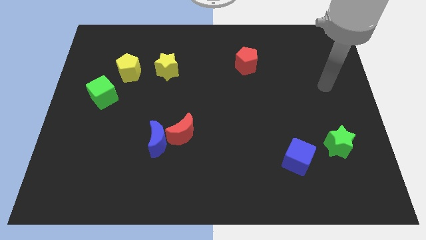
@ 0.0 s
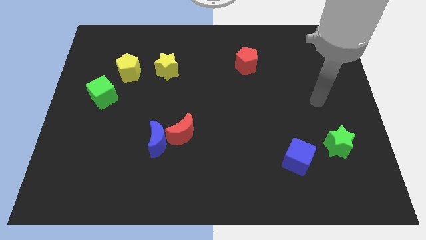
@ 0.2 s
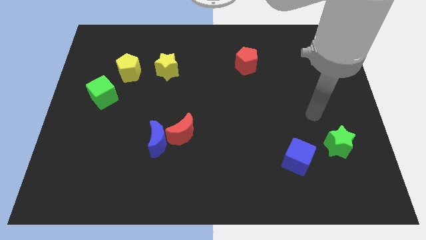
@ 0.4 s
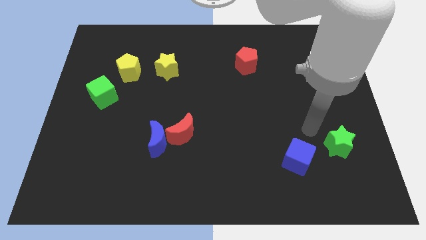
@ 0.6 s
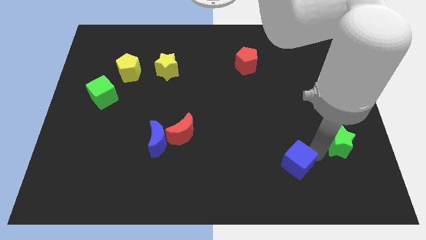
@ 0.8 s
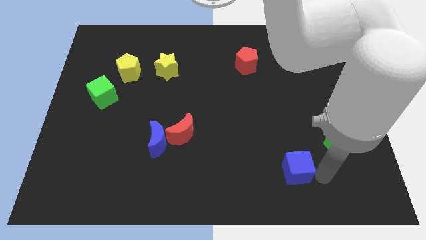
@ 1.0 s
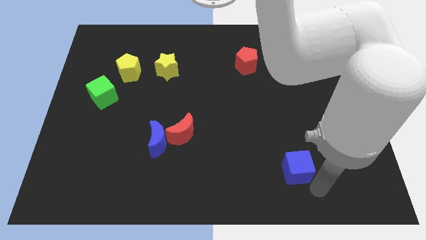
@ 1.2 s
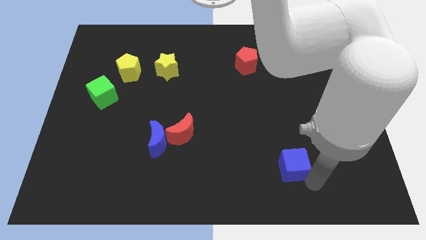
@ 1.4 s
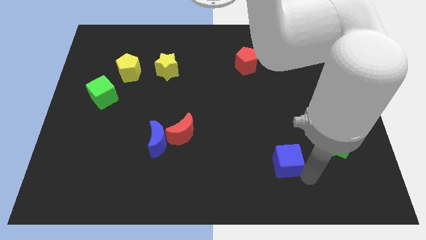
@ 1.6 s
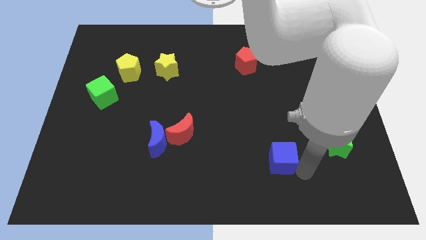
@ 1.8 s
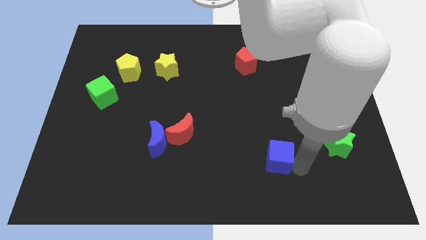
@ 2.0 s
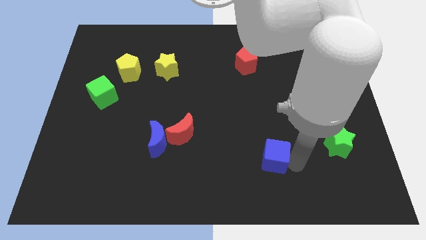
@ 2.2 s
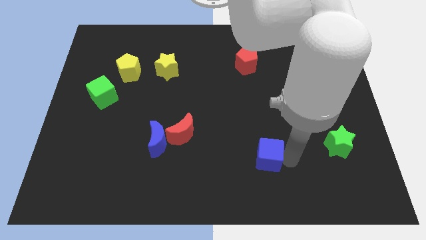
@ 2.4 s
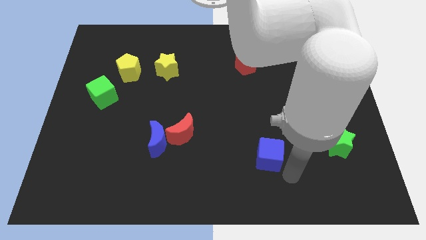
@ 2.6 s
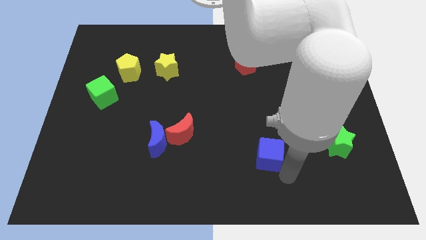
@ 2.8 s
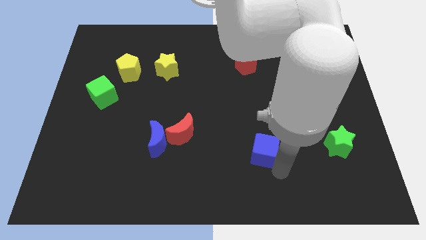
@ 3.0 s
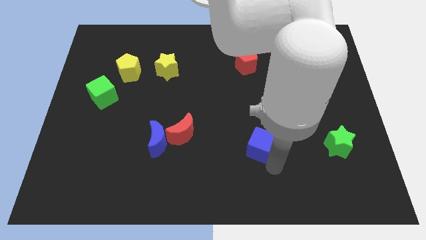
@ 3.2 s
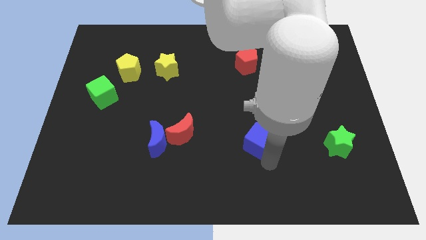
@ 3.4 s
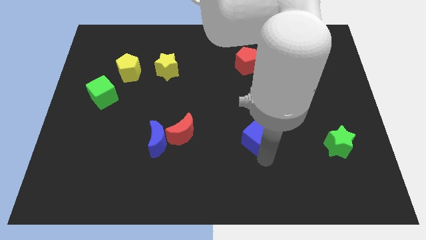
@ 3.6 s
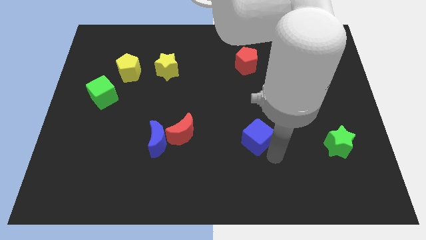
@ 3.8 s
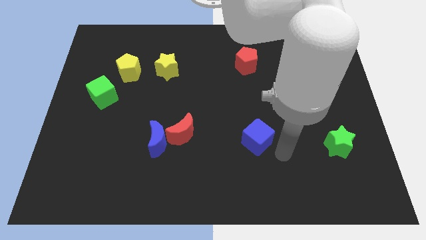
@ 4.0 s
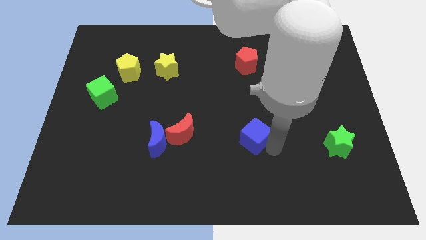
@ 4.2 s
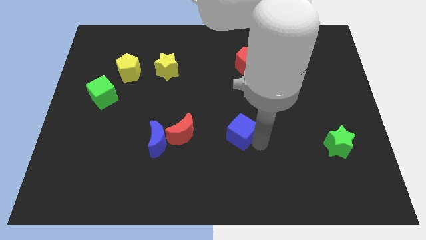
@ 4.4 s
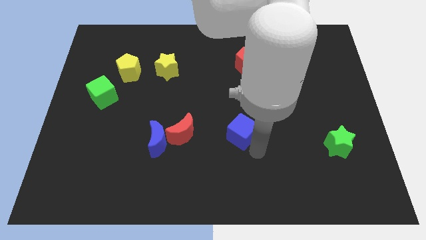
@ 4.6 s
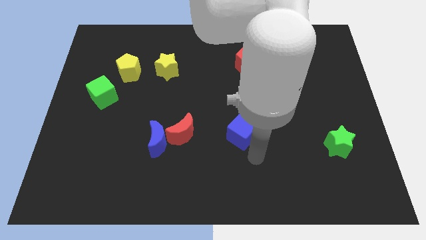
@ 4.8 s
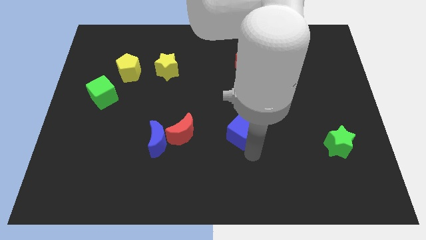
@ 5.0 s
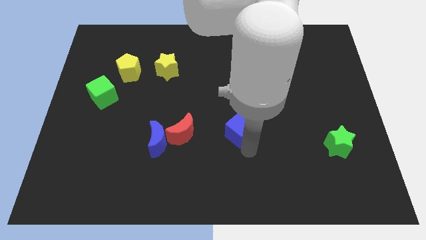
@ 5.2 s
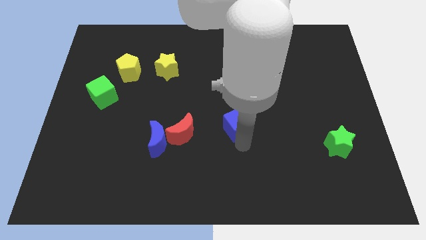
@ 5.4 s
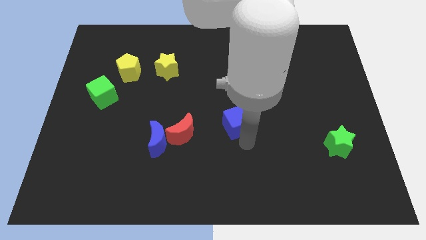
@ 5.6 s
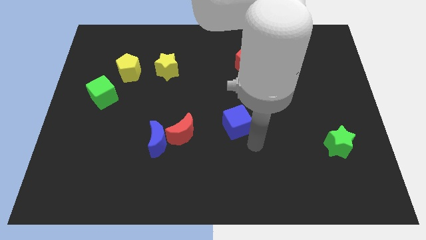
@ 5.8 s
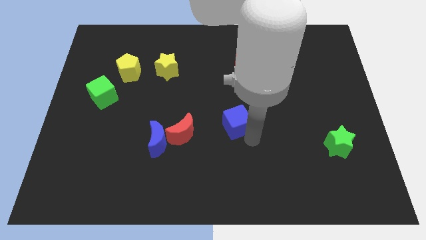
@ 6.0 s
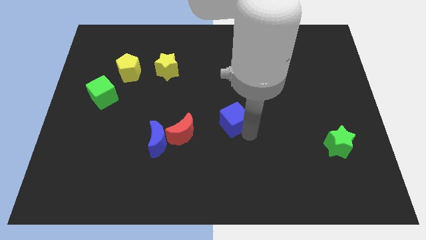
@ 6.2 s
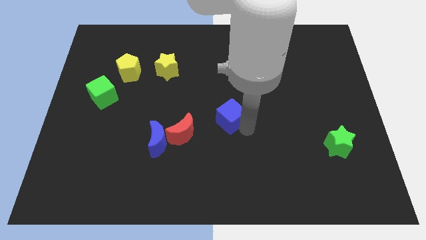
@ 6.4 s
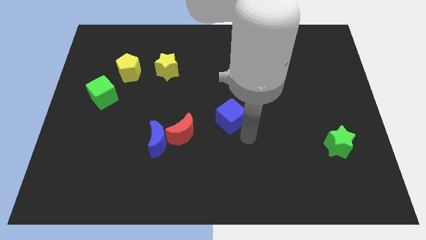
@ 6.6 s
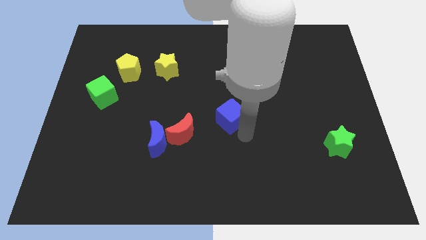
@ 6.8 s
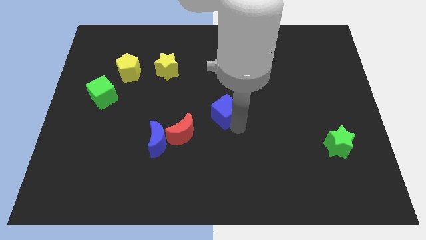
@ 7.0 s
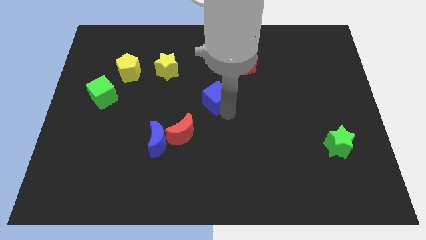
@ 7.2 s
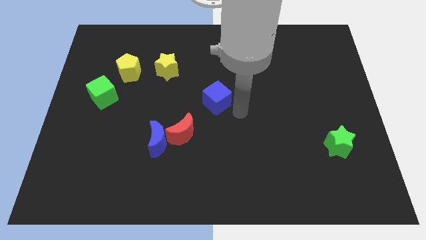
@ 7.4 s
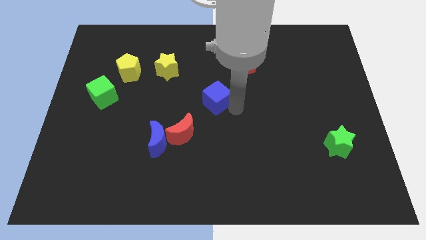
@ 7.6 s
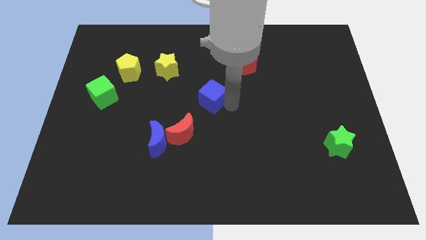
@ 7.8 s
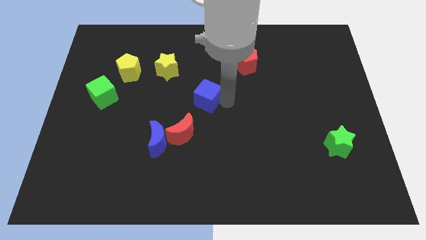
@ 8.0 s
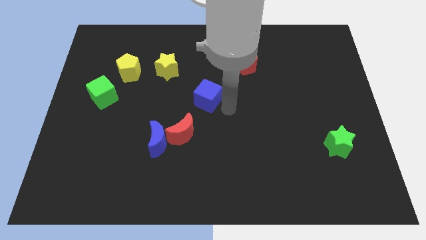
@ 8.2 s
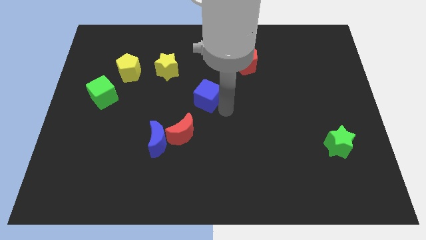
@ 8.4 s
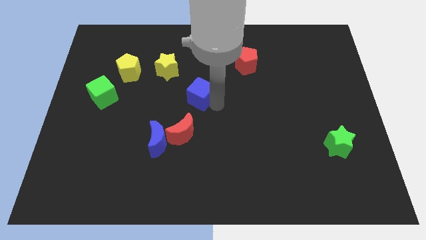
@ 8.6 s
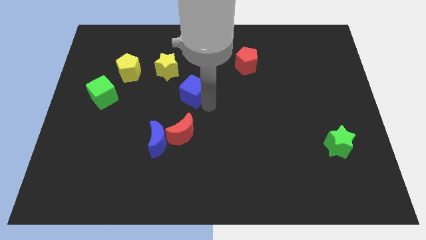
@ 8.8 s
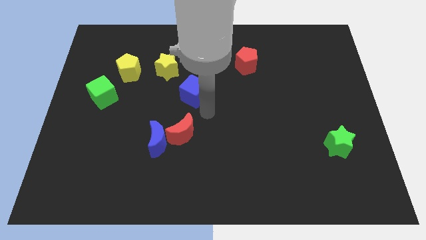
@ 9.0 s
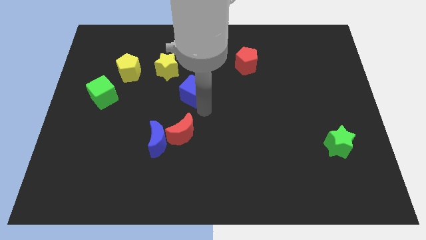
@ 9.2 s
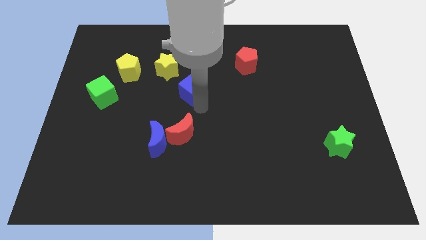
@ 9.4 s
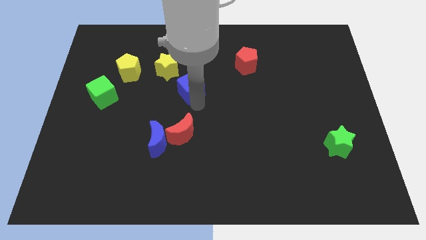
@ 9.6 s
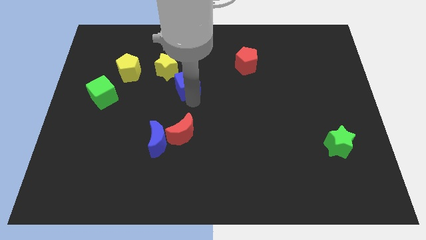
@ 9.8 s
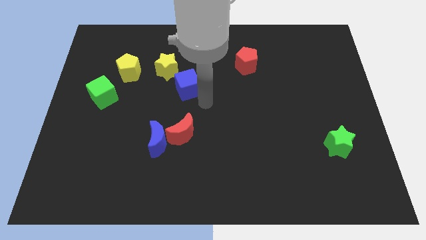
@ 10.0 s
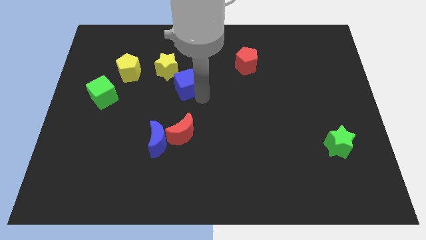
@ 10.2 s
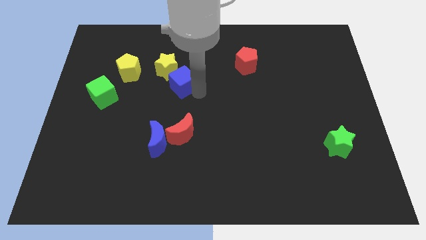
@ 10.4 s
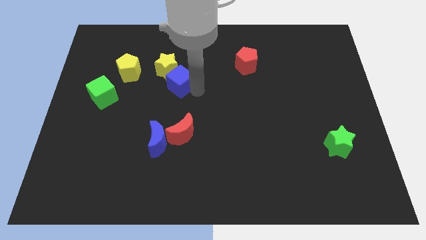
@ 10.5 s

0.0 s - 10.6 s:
move the blue cube to the yellow star

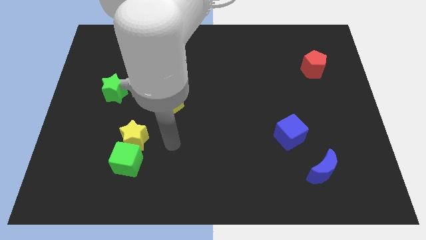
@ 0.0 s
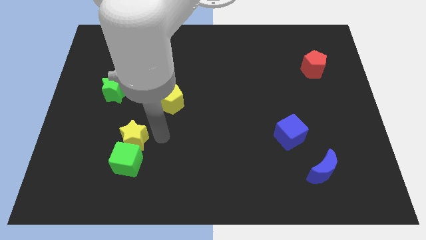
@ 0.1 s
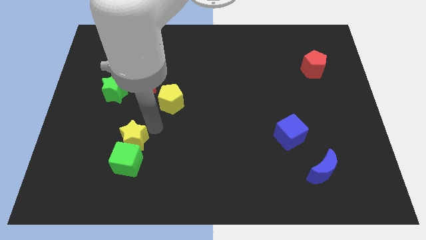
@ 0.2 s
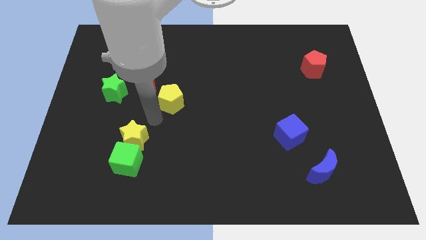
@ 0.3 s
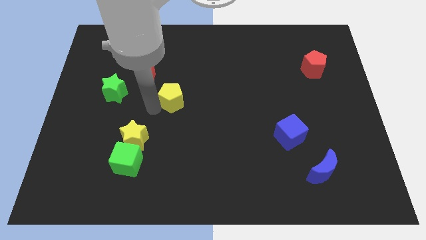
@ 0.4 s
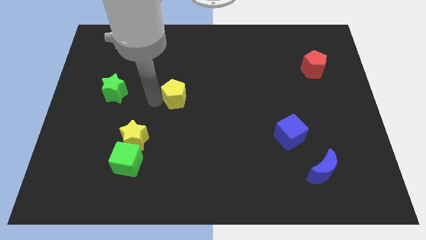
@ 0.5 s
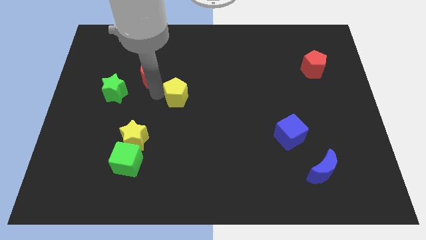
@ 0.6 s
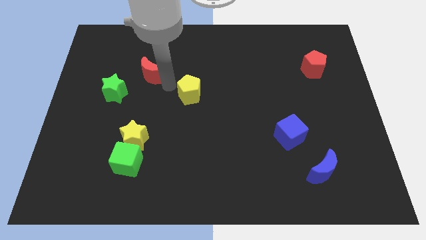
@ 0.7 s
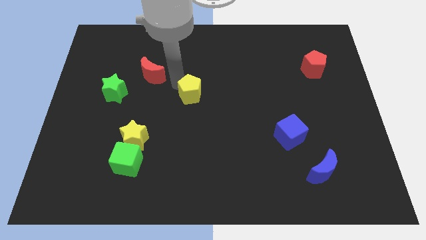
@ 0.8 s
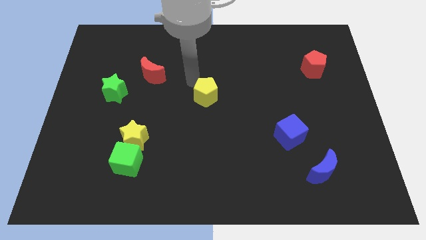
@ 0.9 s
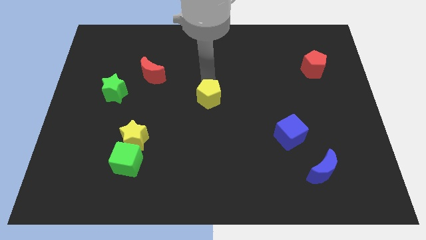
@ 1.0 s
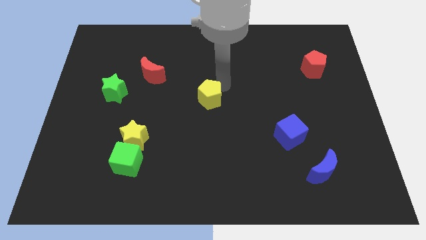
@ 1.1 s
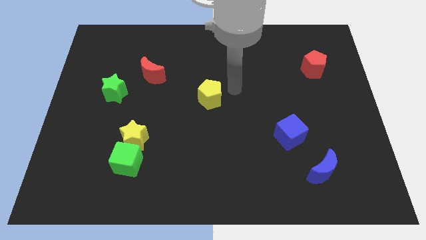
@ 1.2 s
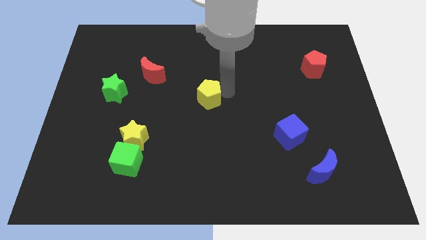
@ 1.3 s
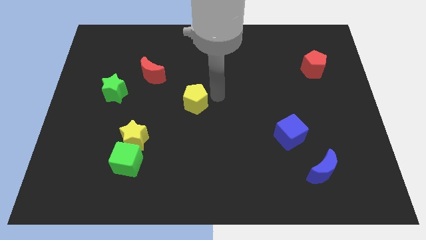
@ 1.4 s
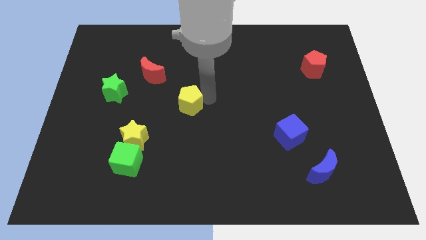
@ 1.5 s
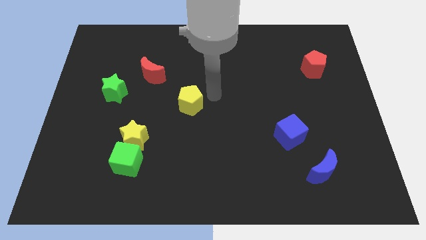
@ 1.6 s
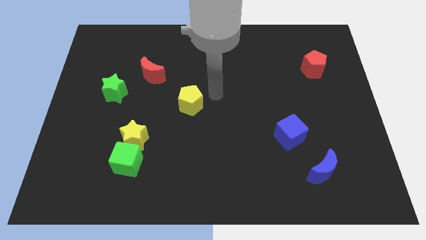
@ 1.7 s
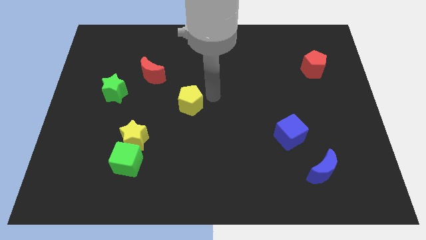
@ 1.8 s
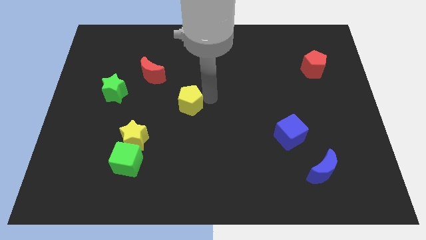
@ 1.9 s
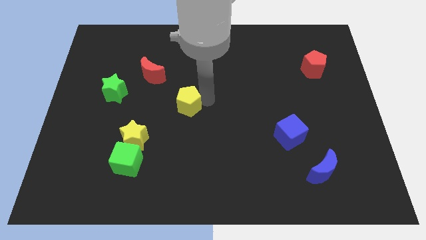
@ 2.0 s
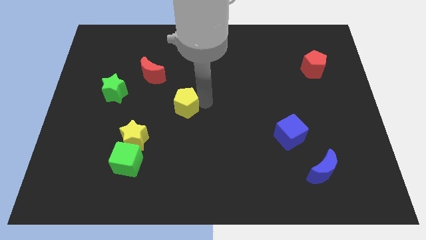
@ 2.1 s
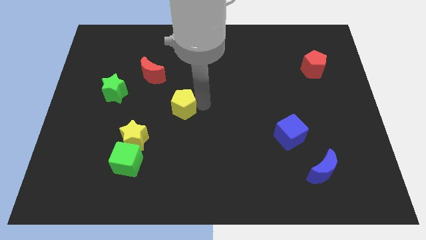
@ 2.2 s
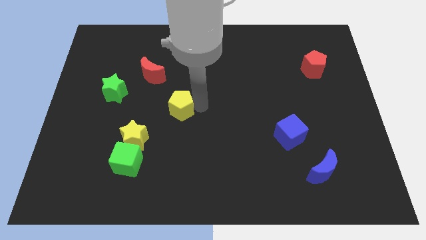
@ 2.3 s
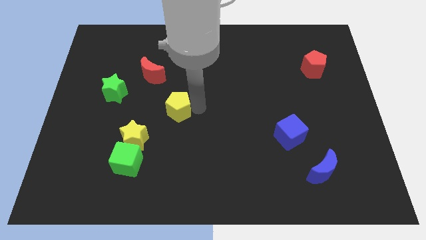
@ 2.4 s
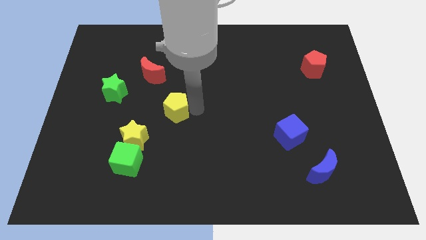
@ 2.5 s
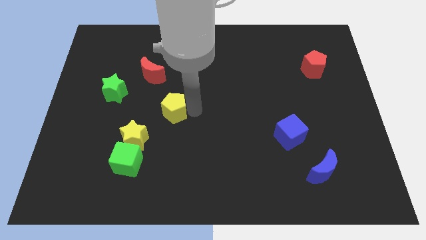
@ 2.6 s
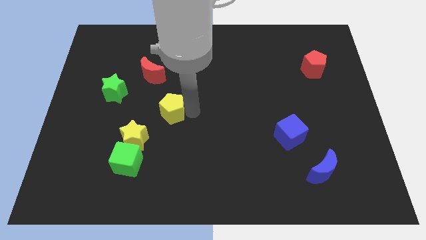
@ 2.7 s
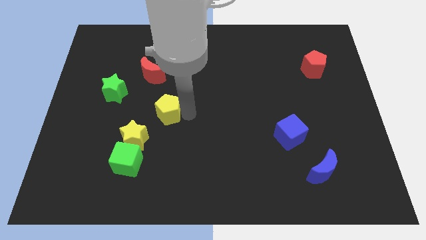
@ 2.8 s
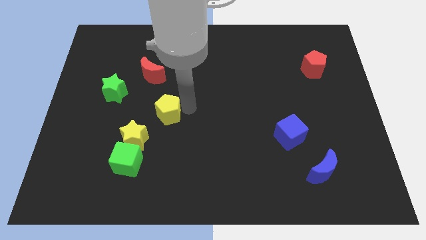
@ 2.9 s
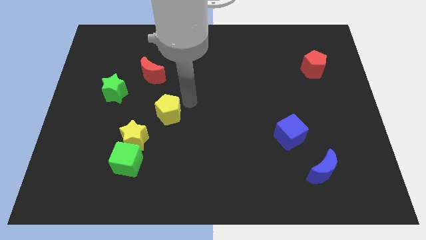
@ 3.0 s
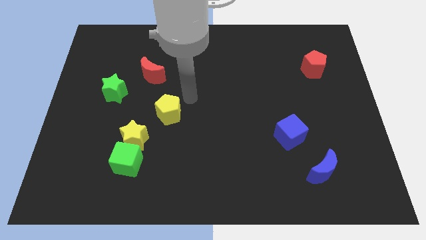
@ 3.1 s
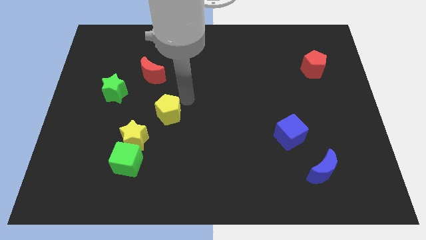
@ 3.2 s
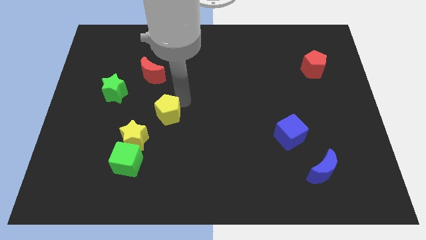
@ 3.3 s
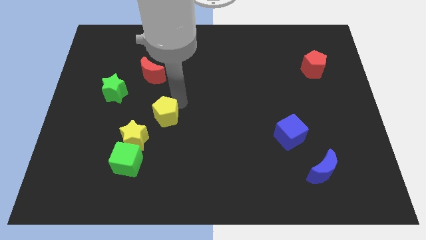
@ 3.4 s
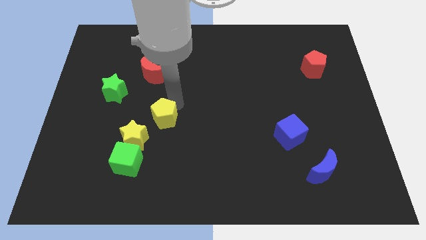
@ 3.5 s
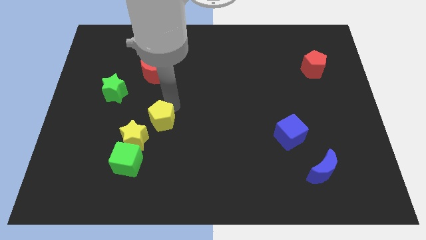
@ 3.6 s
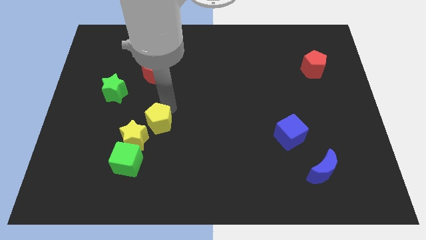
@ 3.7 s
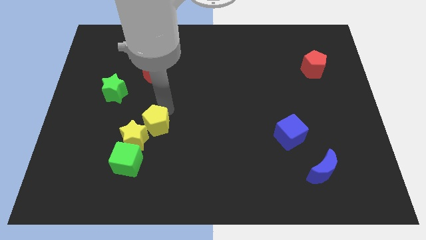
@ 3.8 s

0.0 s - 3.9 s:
move the yellow pentagon next to the yellow star
